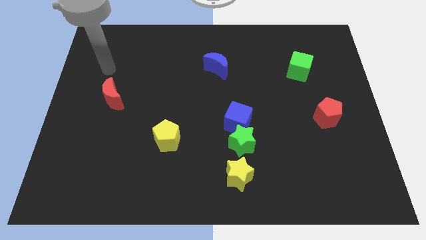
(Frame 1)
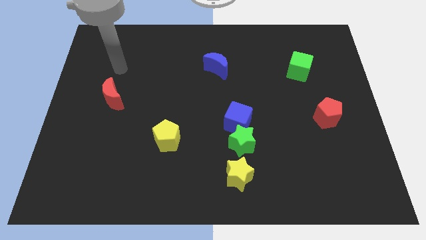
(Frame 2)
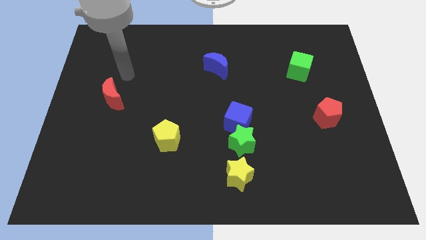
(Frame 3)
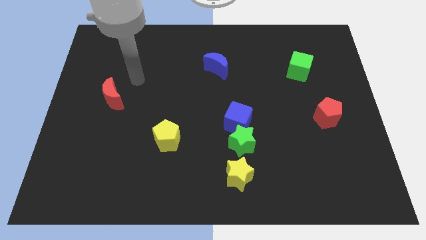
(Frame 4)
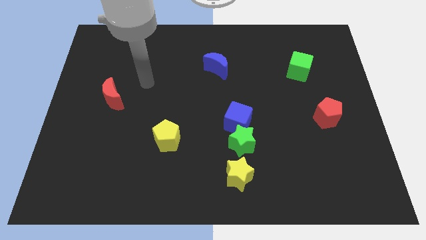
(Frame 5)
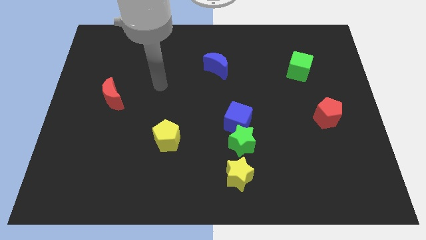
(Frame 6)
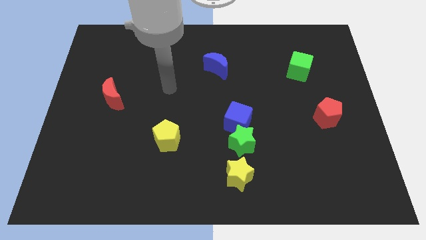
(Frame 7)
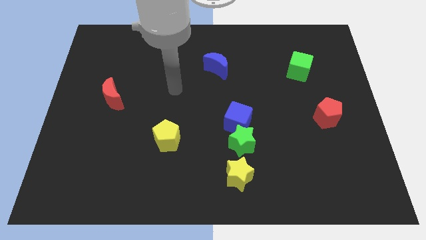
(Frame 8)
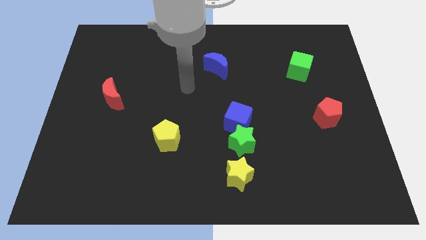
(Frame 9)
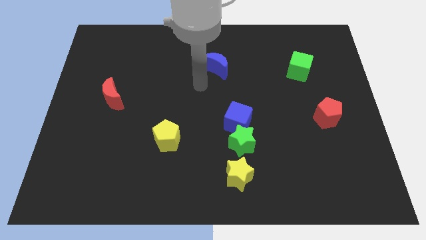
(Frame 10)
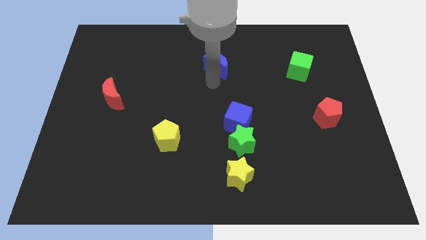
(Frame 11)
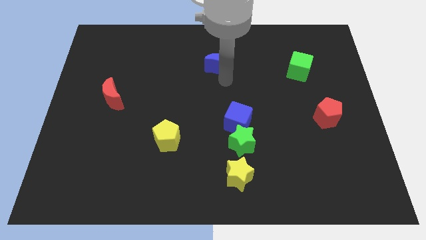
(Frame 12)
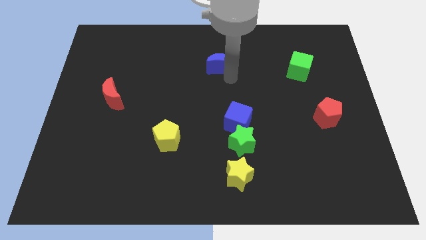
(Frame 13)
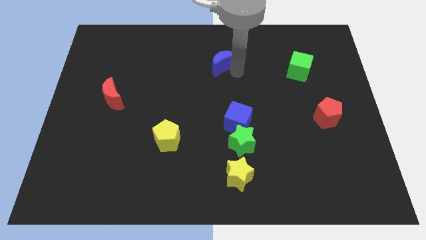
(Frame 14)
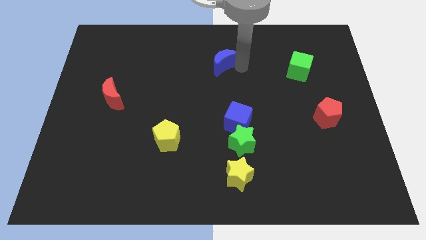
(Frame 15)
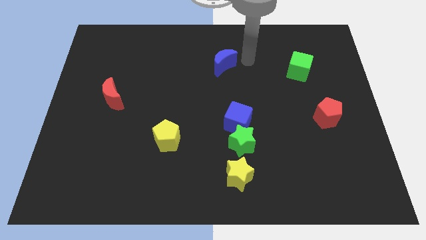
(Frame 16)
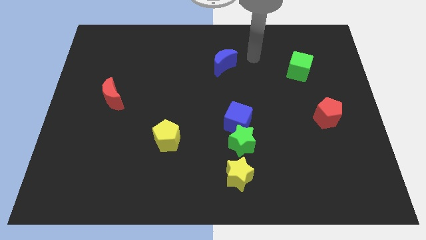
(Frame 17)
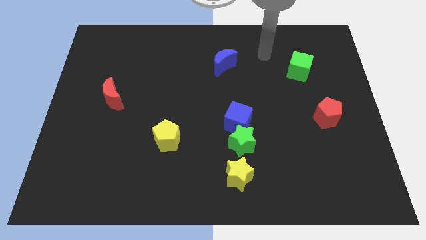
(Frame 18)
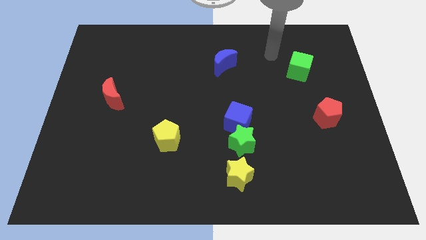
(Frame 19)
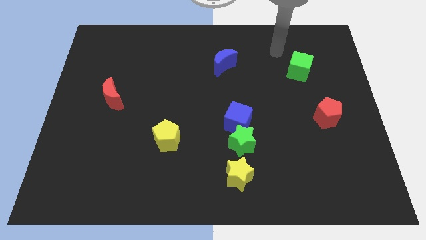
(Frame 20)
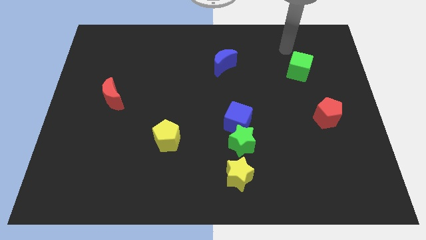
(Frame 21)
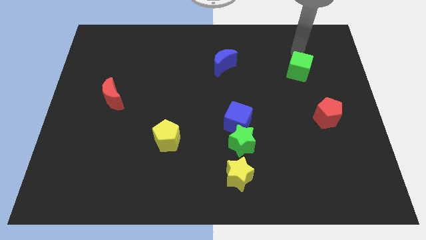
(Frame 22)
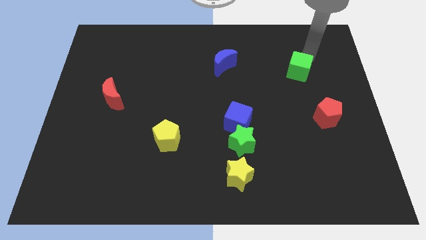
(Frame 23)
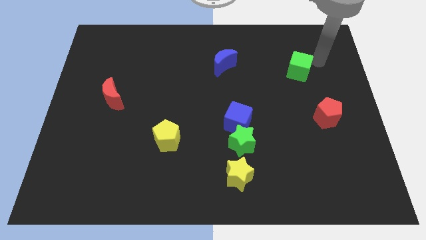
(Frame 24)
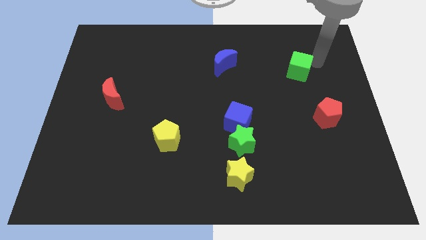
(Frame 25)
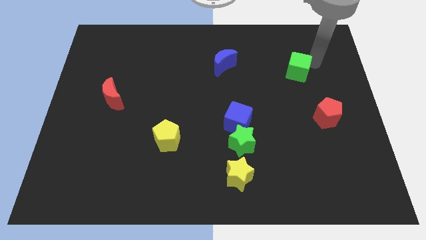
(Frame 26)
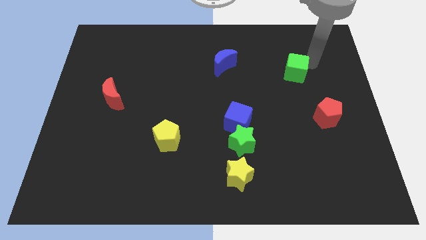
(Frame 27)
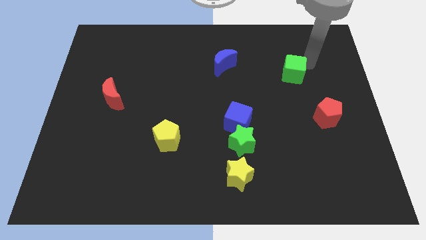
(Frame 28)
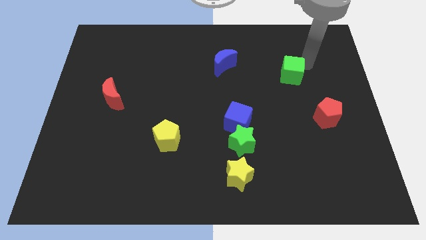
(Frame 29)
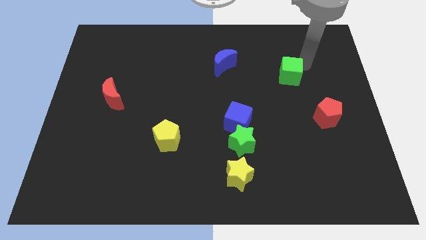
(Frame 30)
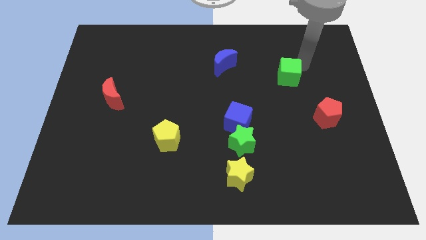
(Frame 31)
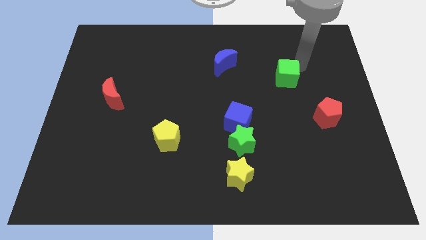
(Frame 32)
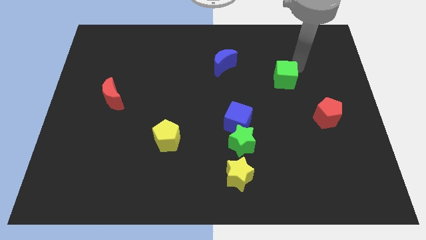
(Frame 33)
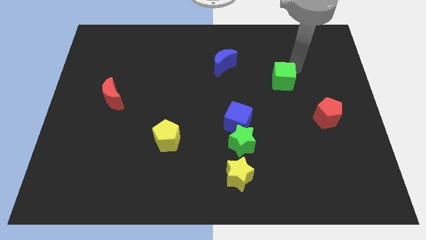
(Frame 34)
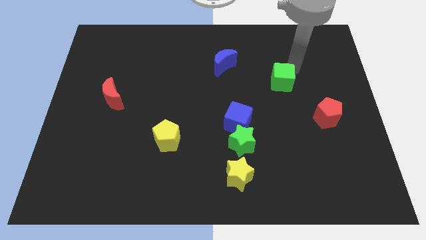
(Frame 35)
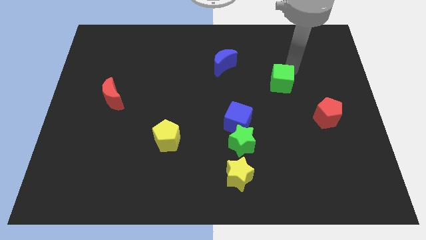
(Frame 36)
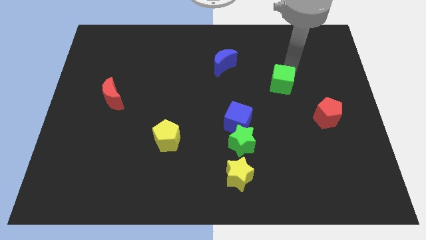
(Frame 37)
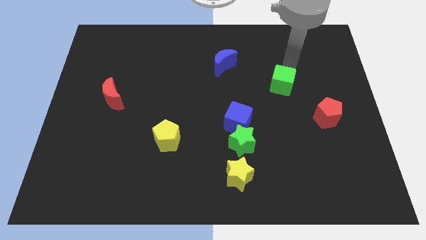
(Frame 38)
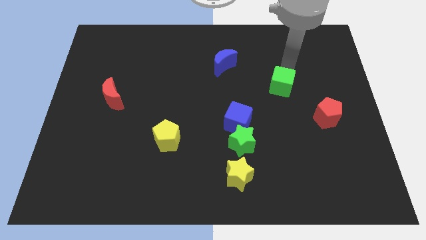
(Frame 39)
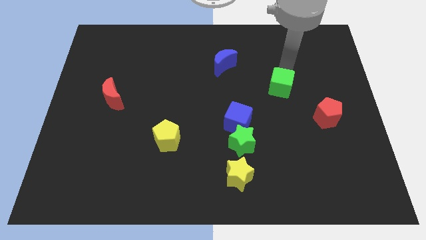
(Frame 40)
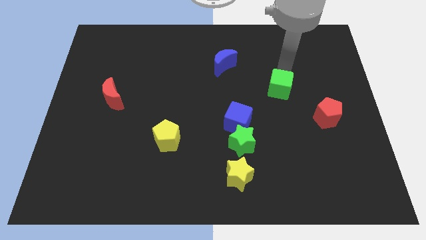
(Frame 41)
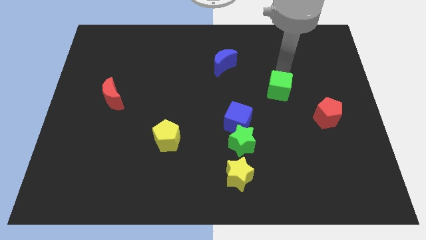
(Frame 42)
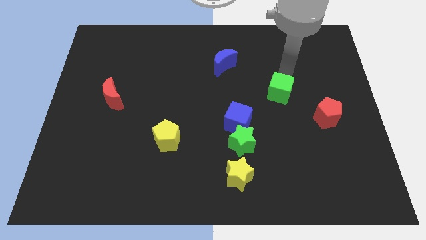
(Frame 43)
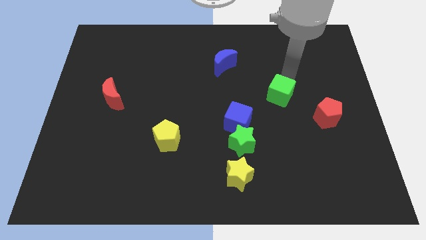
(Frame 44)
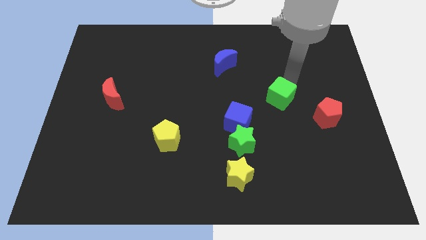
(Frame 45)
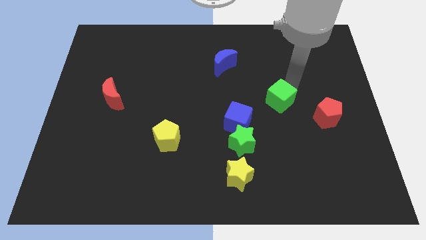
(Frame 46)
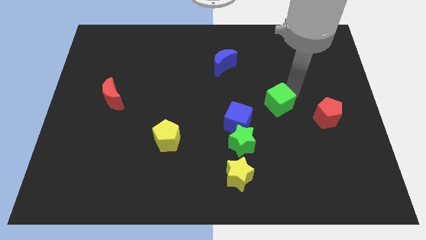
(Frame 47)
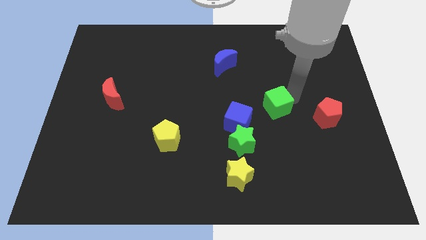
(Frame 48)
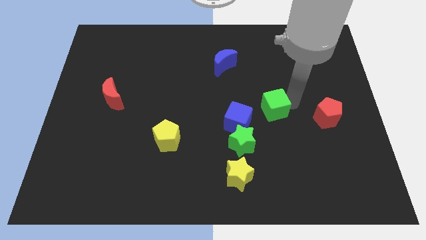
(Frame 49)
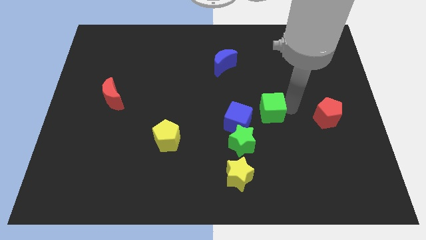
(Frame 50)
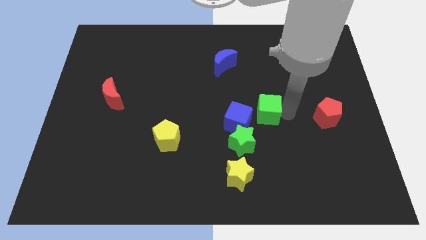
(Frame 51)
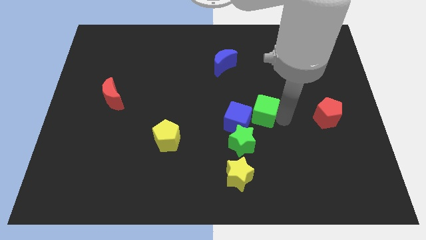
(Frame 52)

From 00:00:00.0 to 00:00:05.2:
push the green cube to the middle

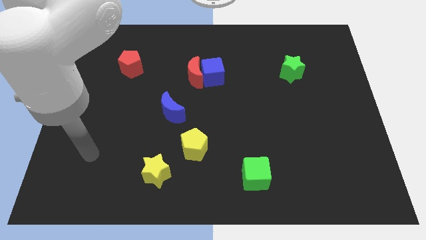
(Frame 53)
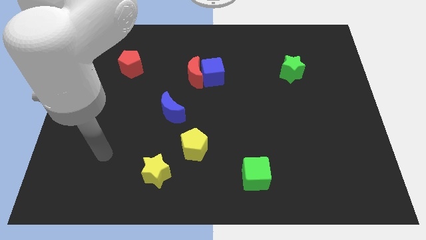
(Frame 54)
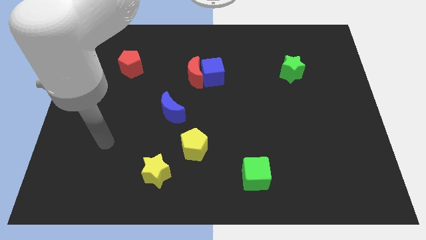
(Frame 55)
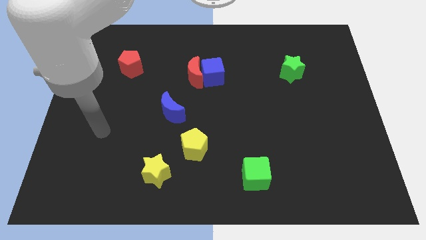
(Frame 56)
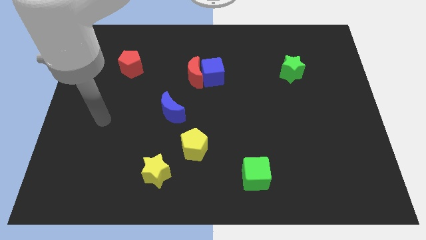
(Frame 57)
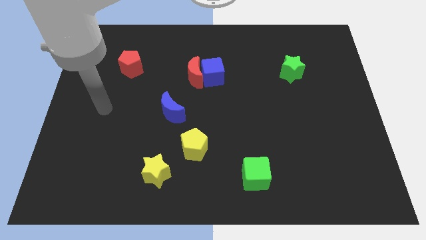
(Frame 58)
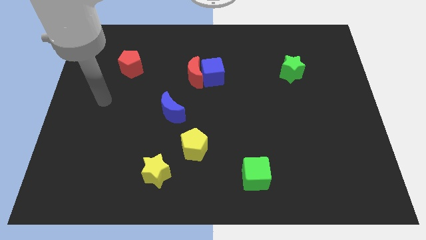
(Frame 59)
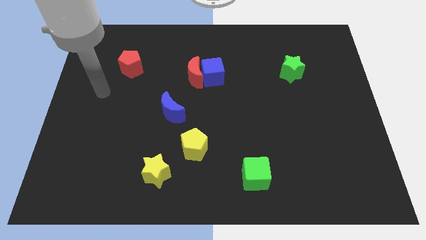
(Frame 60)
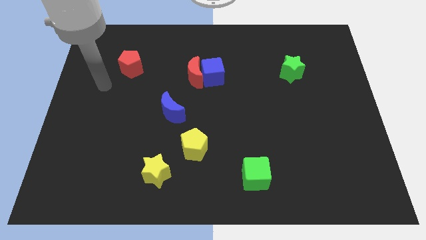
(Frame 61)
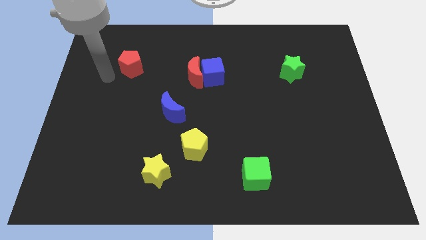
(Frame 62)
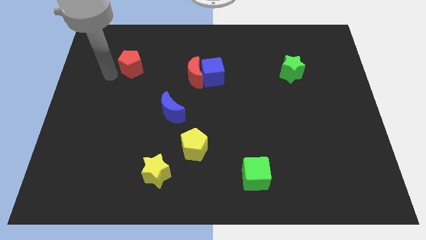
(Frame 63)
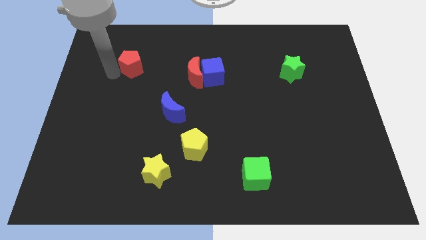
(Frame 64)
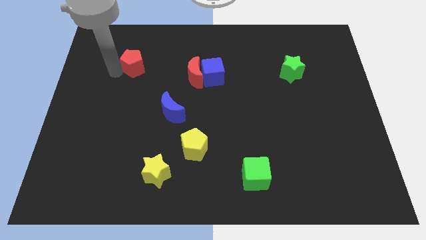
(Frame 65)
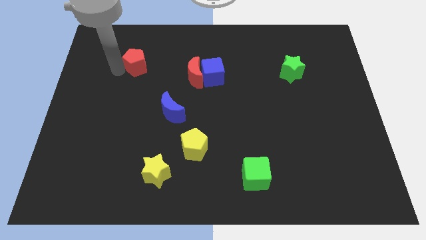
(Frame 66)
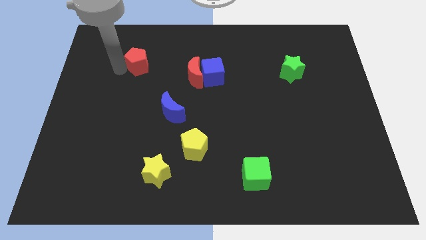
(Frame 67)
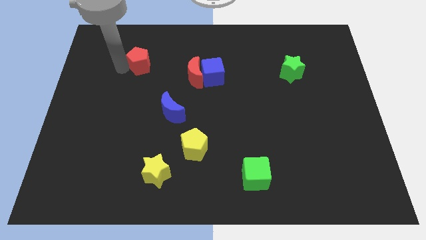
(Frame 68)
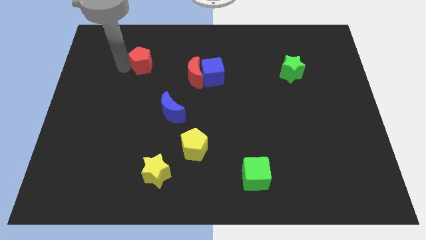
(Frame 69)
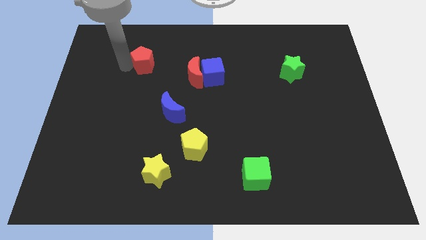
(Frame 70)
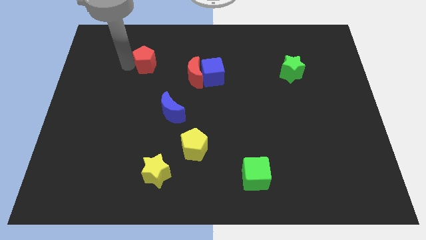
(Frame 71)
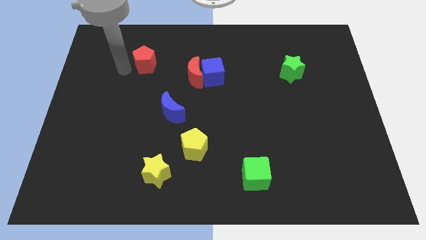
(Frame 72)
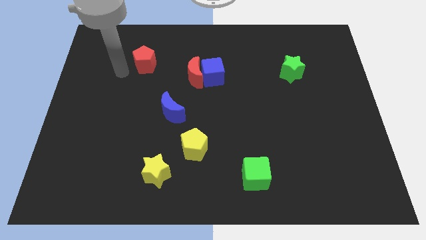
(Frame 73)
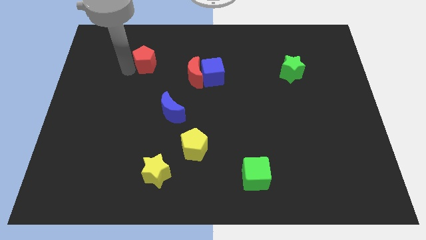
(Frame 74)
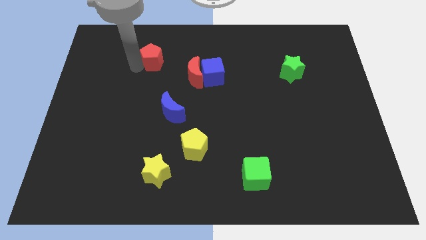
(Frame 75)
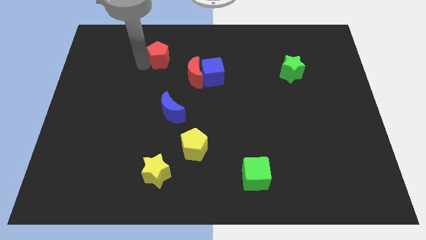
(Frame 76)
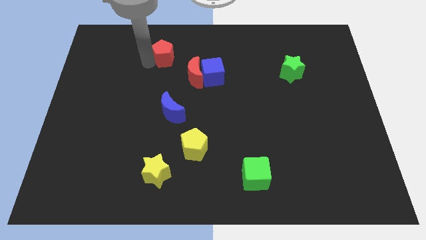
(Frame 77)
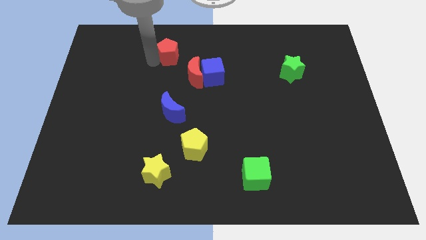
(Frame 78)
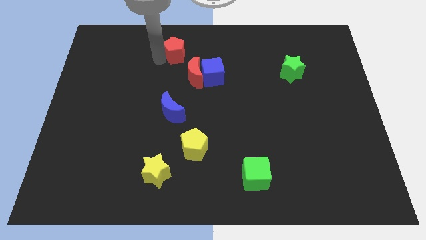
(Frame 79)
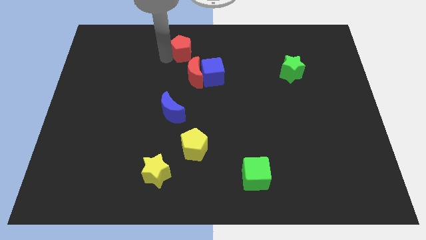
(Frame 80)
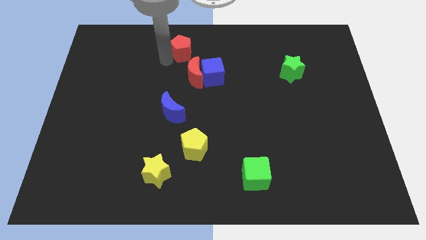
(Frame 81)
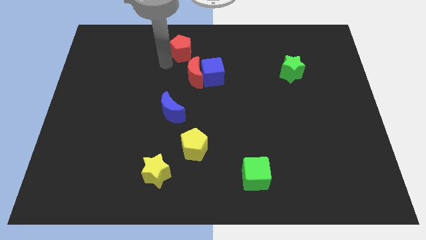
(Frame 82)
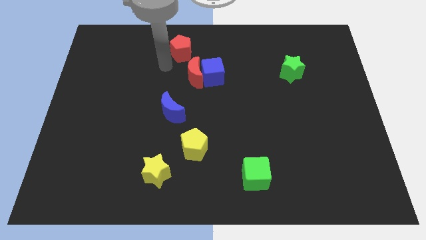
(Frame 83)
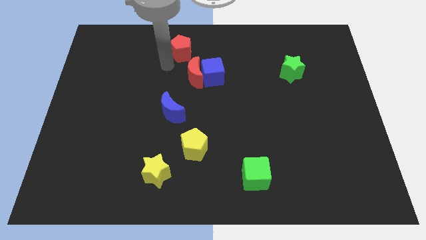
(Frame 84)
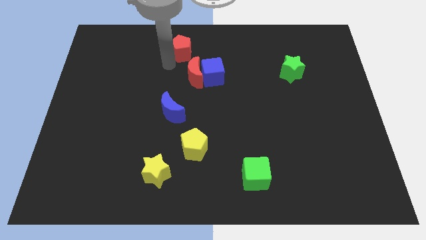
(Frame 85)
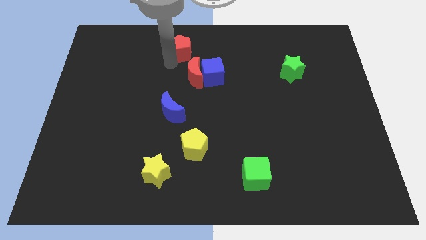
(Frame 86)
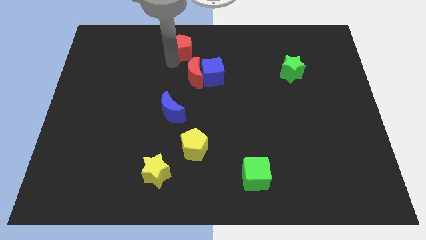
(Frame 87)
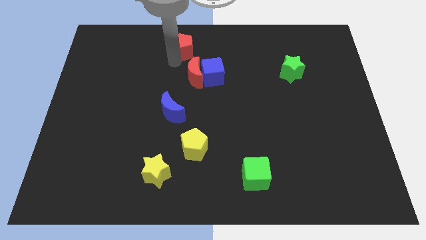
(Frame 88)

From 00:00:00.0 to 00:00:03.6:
push the red pentagon to the towards your base
